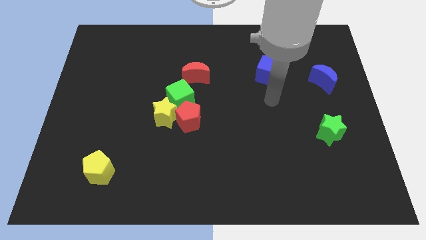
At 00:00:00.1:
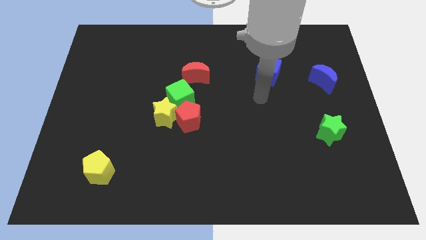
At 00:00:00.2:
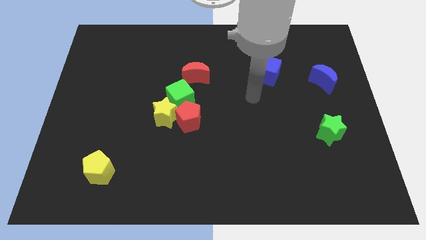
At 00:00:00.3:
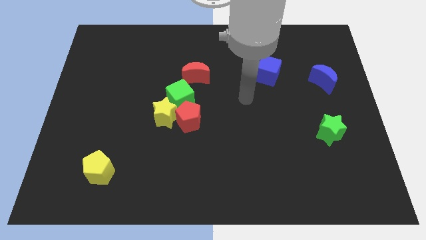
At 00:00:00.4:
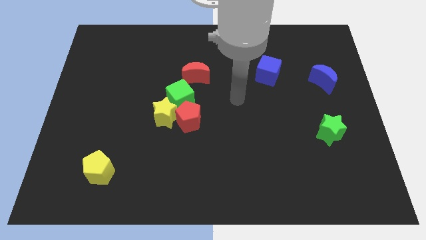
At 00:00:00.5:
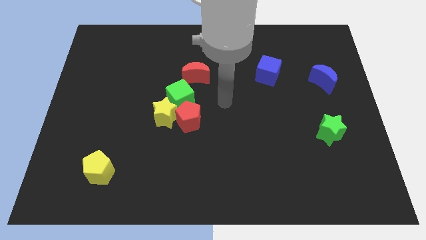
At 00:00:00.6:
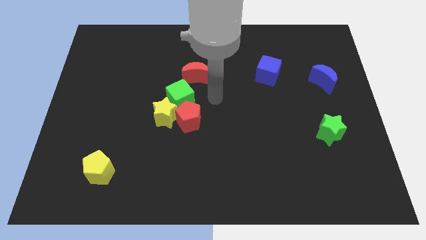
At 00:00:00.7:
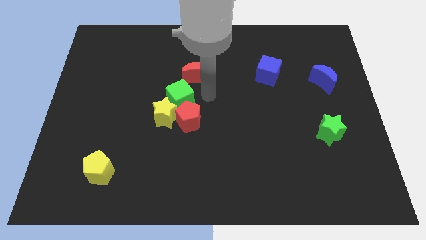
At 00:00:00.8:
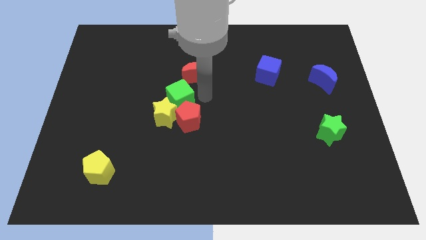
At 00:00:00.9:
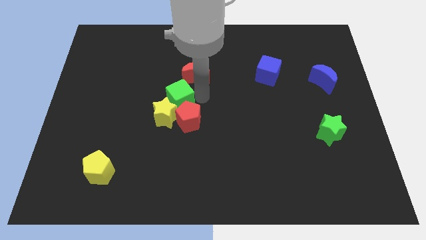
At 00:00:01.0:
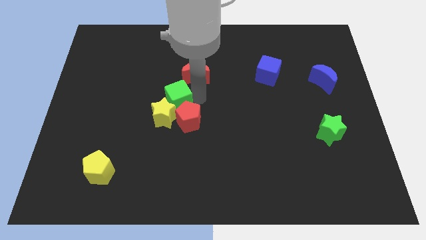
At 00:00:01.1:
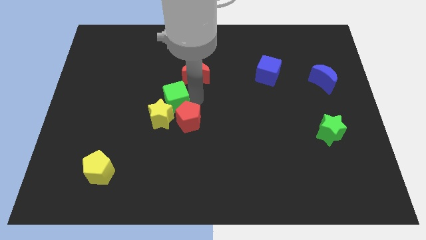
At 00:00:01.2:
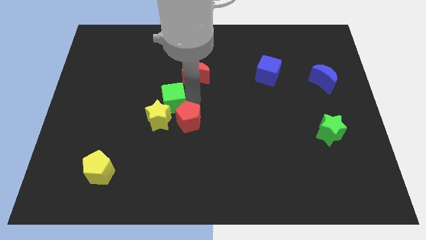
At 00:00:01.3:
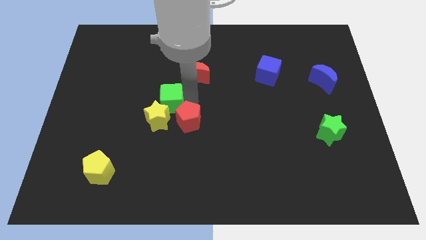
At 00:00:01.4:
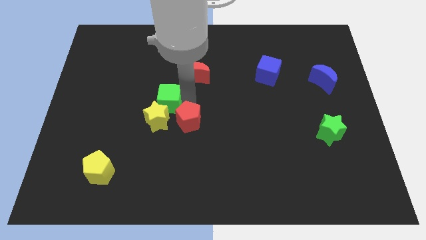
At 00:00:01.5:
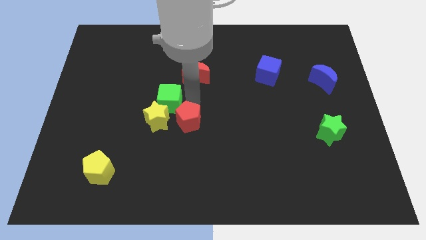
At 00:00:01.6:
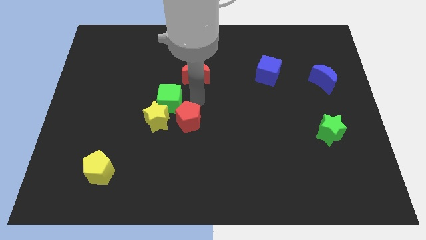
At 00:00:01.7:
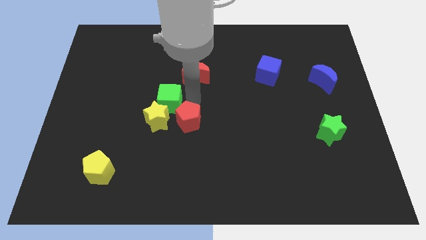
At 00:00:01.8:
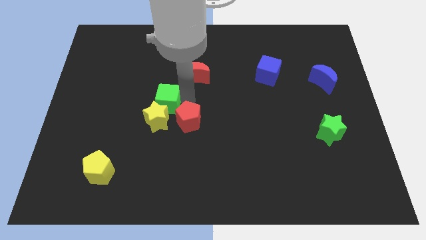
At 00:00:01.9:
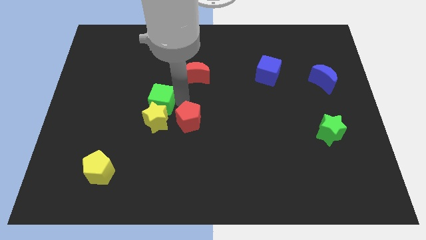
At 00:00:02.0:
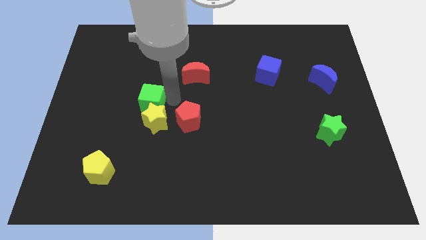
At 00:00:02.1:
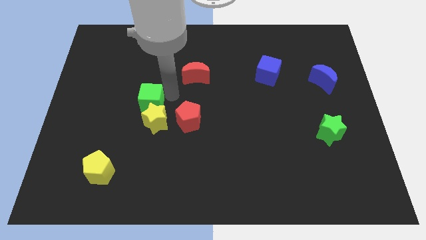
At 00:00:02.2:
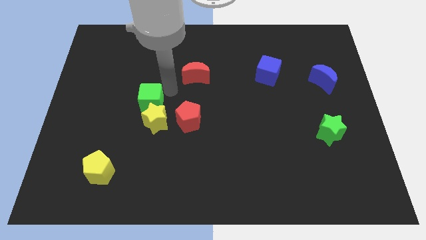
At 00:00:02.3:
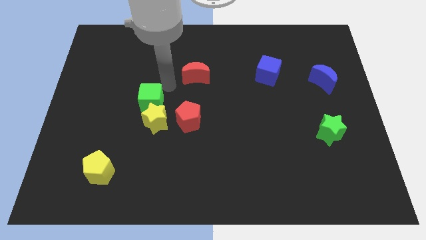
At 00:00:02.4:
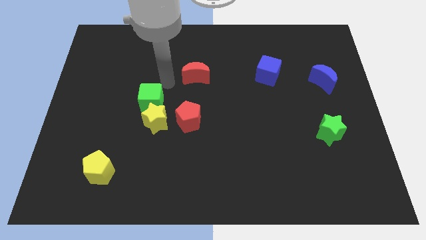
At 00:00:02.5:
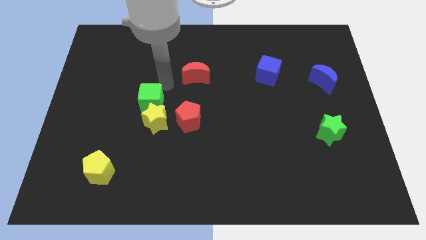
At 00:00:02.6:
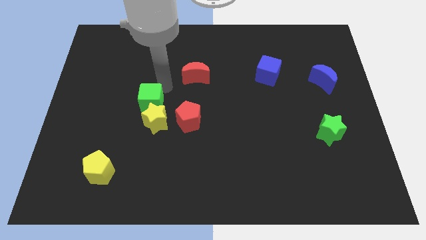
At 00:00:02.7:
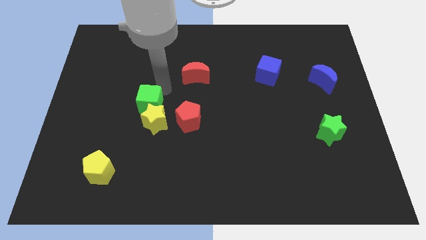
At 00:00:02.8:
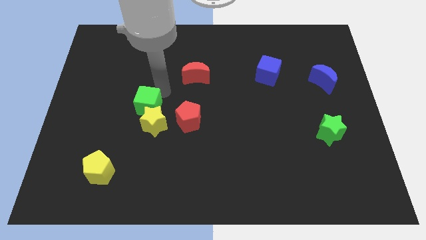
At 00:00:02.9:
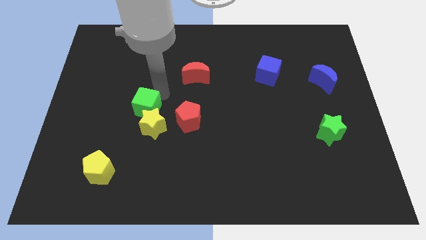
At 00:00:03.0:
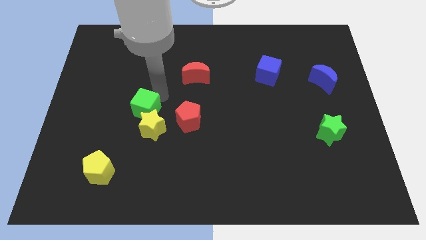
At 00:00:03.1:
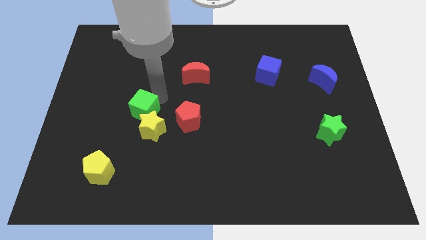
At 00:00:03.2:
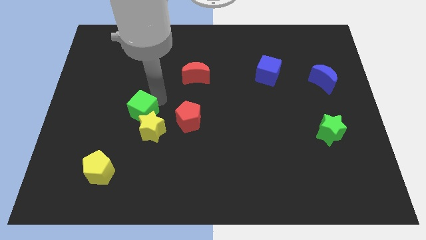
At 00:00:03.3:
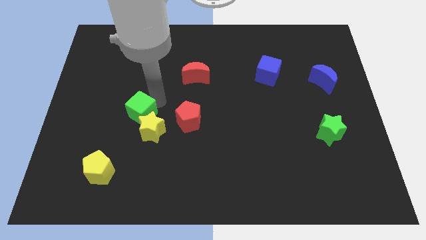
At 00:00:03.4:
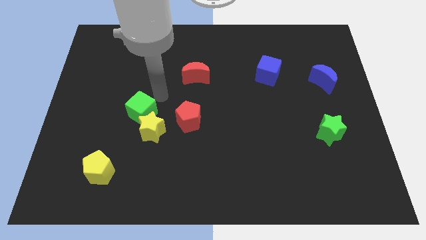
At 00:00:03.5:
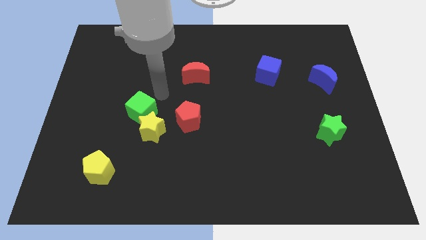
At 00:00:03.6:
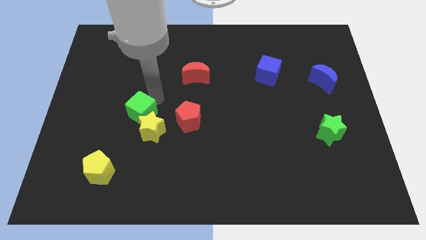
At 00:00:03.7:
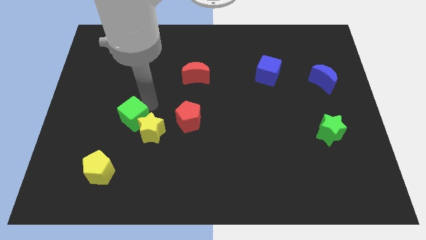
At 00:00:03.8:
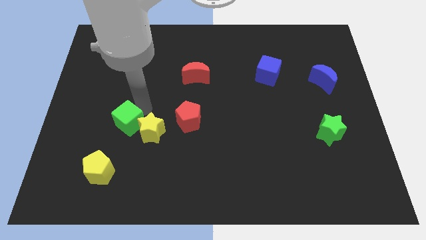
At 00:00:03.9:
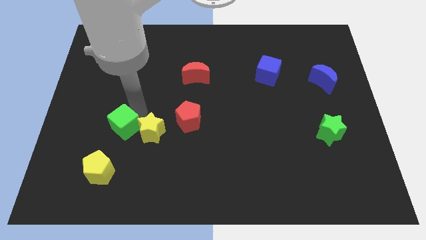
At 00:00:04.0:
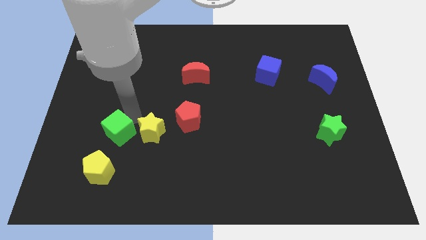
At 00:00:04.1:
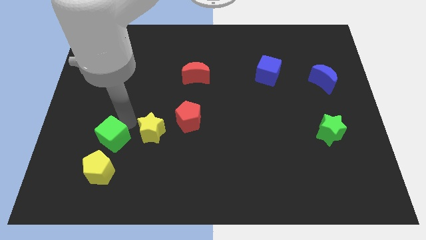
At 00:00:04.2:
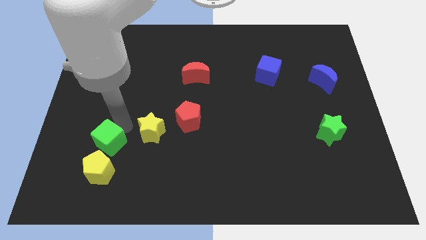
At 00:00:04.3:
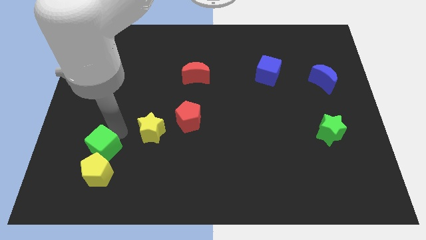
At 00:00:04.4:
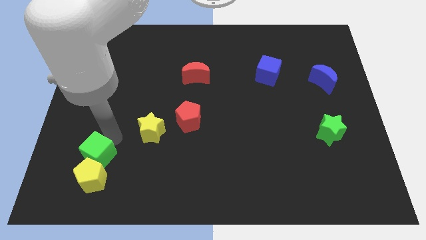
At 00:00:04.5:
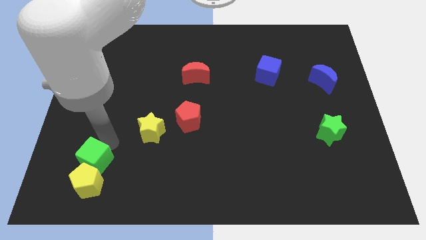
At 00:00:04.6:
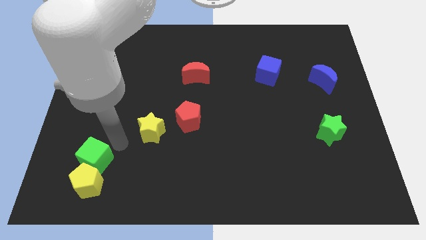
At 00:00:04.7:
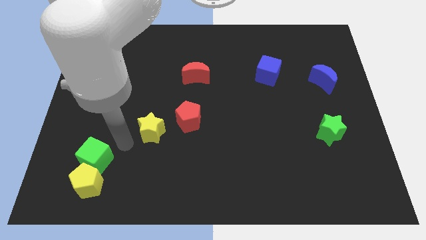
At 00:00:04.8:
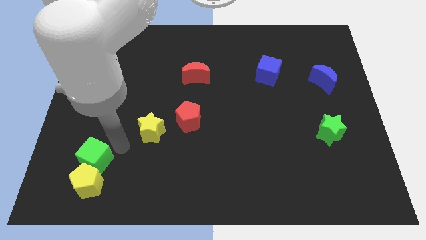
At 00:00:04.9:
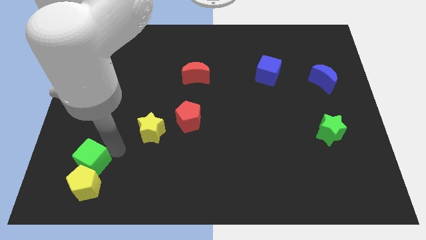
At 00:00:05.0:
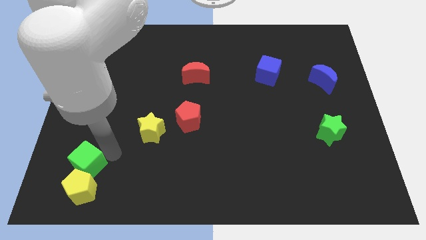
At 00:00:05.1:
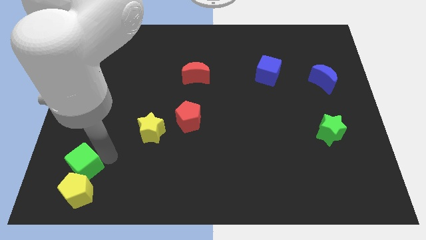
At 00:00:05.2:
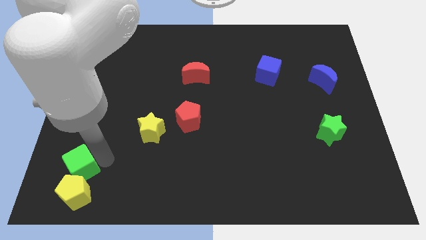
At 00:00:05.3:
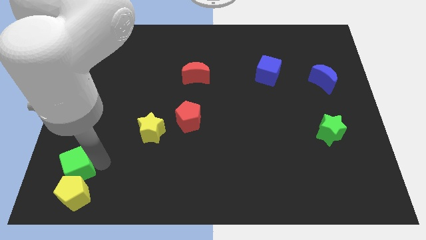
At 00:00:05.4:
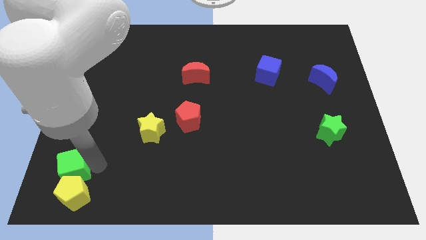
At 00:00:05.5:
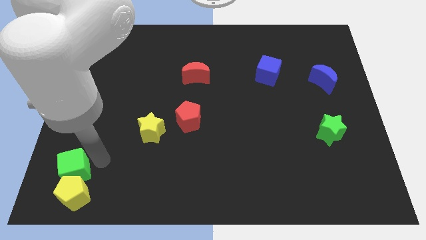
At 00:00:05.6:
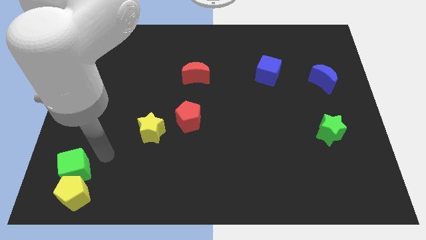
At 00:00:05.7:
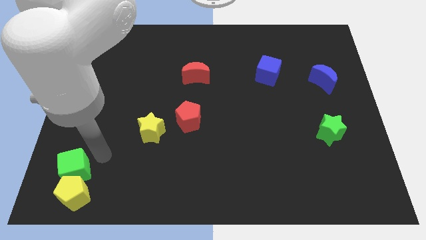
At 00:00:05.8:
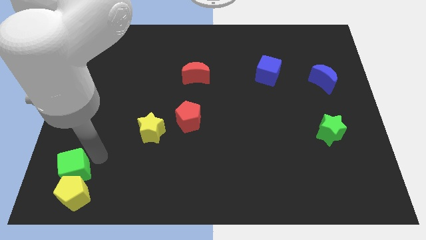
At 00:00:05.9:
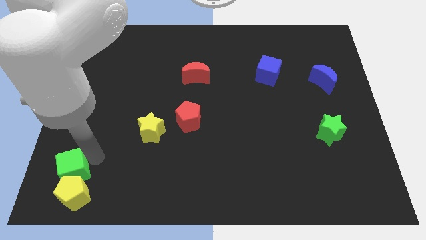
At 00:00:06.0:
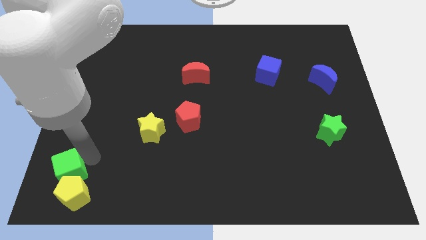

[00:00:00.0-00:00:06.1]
push the green cube to the bottom left of the board

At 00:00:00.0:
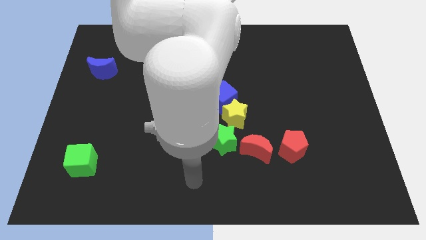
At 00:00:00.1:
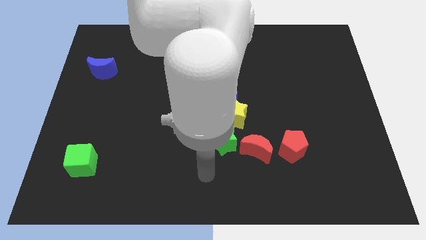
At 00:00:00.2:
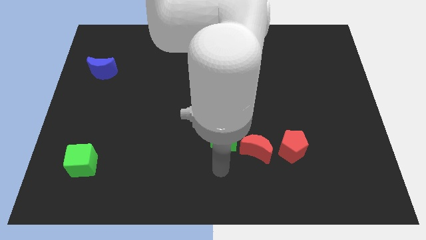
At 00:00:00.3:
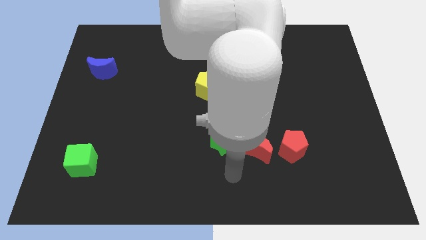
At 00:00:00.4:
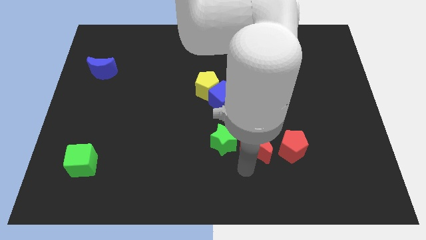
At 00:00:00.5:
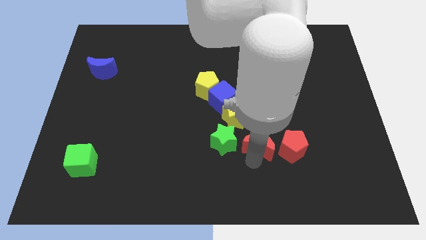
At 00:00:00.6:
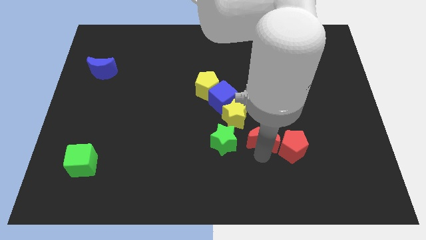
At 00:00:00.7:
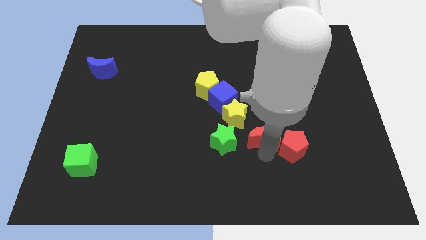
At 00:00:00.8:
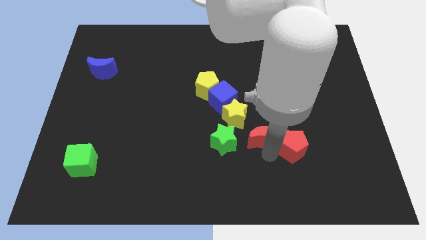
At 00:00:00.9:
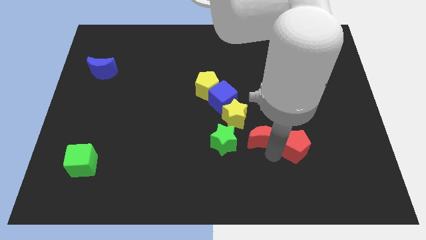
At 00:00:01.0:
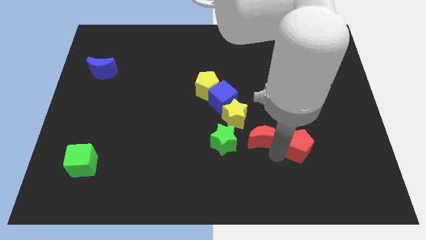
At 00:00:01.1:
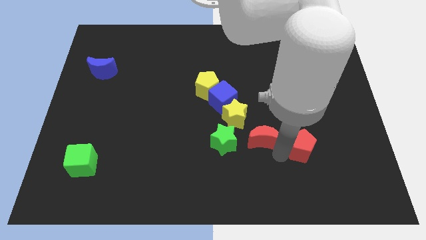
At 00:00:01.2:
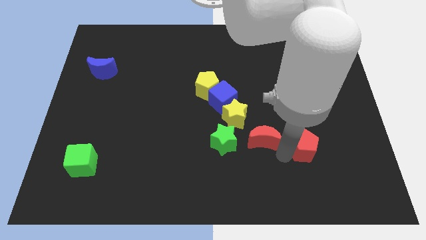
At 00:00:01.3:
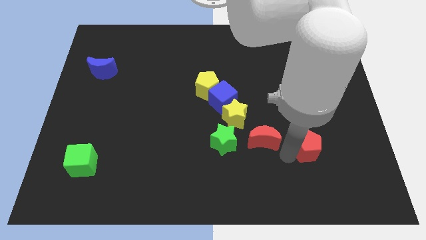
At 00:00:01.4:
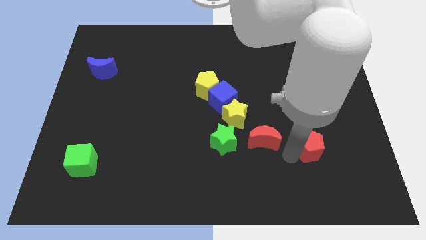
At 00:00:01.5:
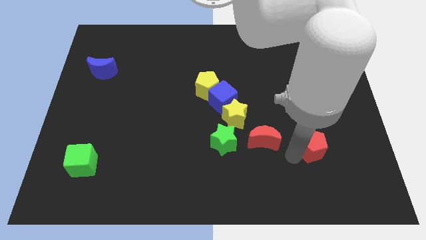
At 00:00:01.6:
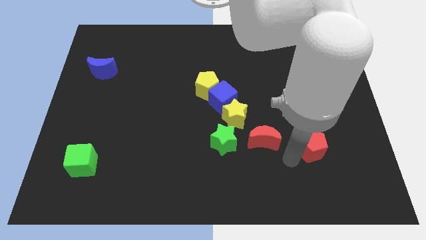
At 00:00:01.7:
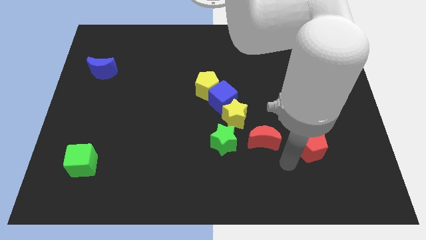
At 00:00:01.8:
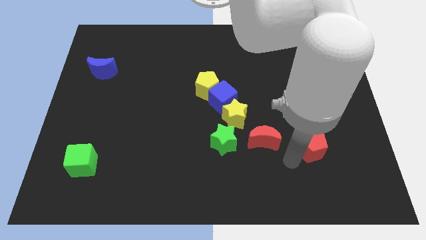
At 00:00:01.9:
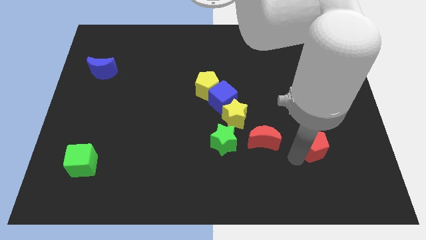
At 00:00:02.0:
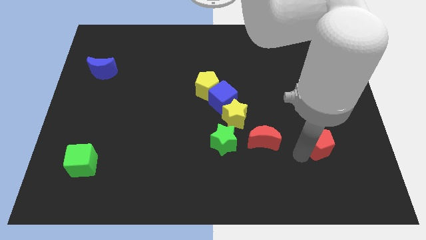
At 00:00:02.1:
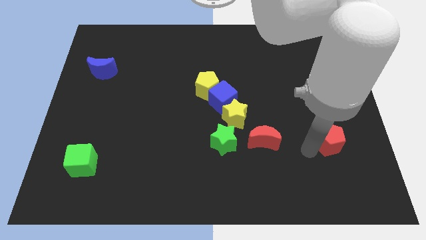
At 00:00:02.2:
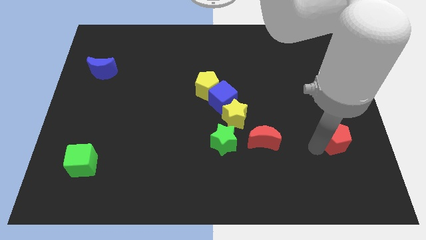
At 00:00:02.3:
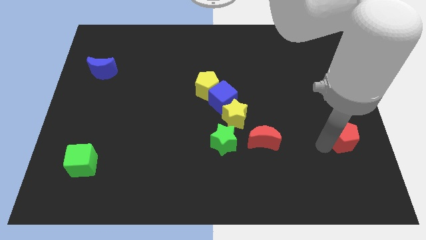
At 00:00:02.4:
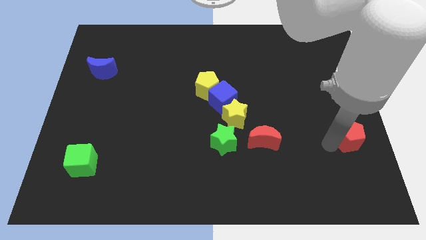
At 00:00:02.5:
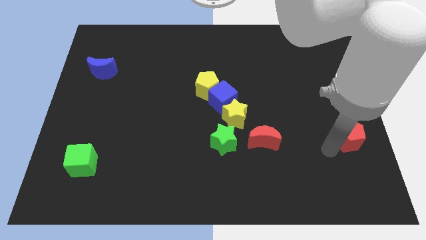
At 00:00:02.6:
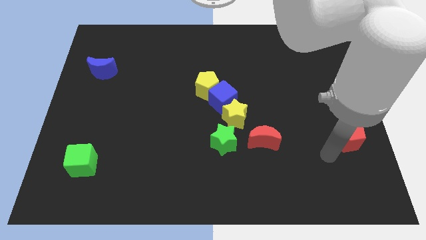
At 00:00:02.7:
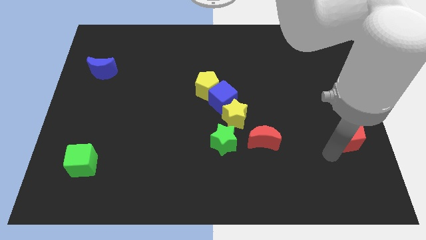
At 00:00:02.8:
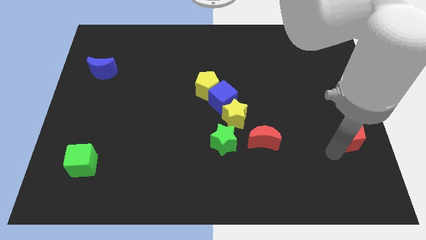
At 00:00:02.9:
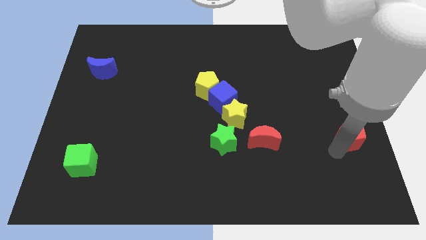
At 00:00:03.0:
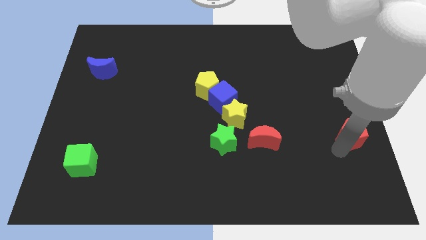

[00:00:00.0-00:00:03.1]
put the red pentagon to the right side
